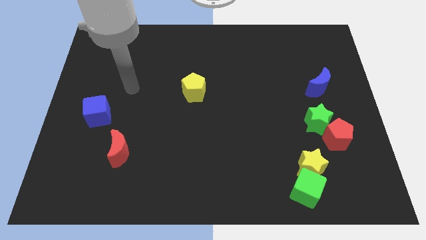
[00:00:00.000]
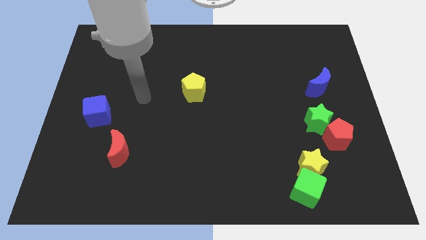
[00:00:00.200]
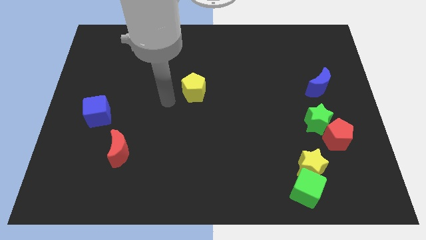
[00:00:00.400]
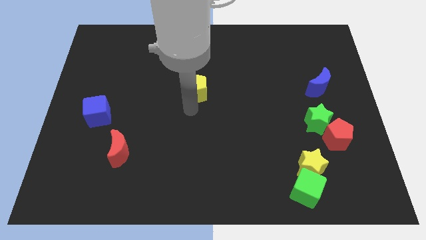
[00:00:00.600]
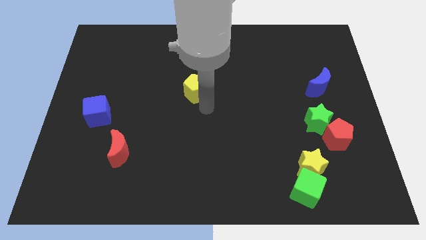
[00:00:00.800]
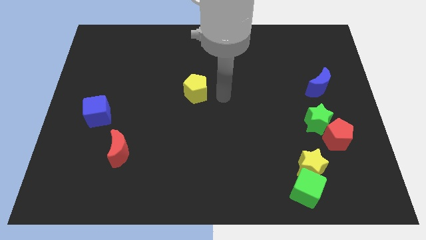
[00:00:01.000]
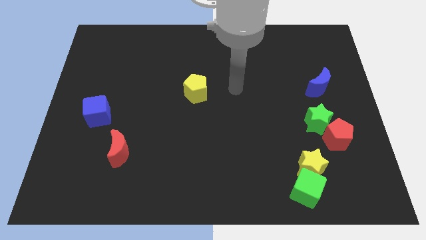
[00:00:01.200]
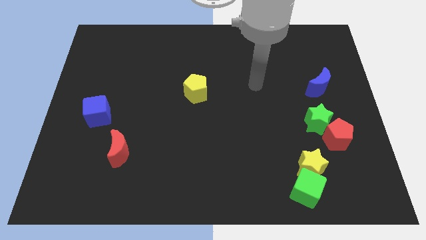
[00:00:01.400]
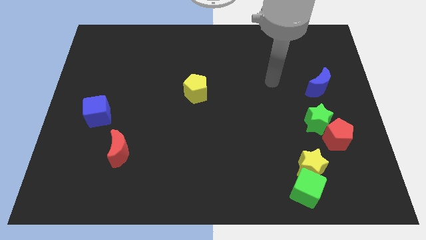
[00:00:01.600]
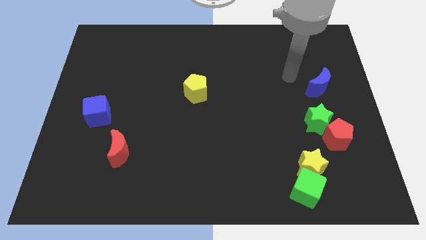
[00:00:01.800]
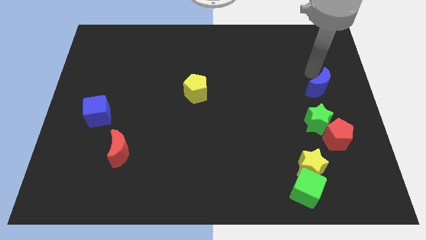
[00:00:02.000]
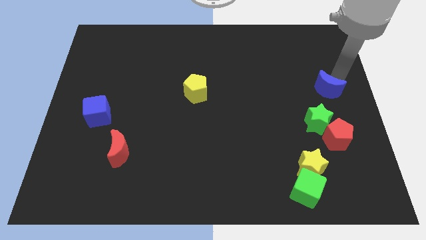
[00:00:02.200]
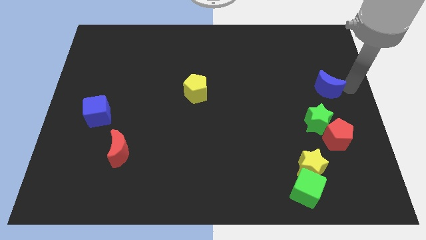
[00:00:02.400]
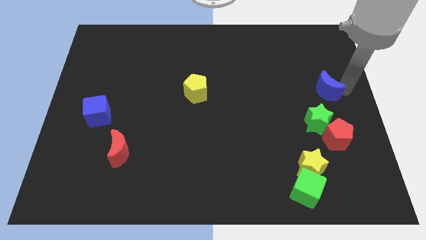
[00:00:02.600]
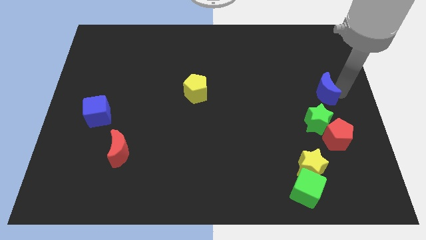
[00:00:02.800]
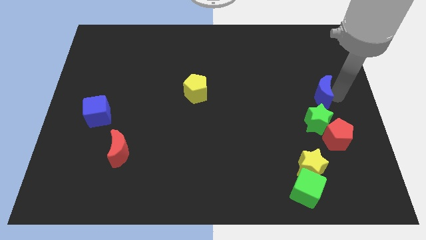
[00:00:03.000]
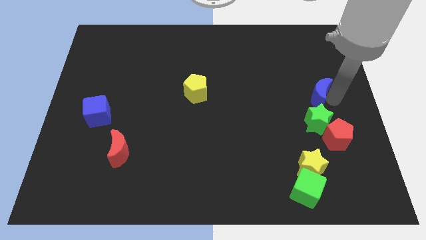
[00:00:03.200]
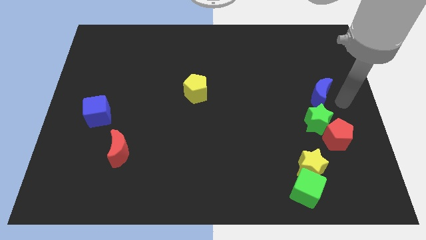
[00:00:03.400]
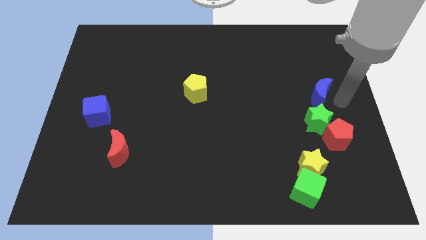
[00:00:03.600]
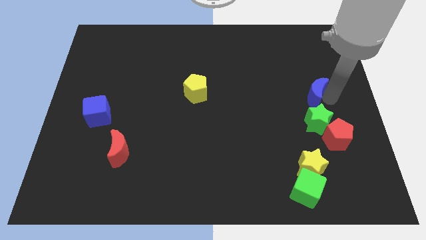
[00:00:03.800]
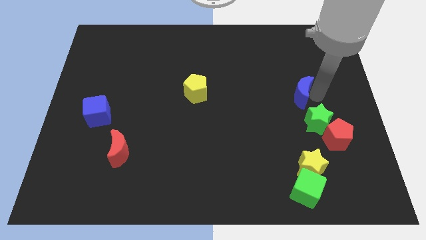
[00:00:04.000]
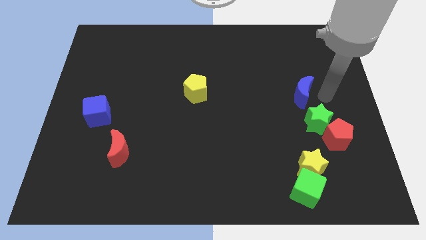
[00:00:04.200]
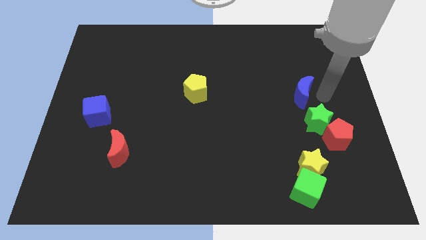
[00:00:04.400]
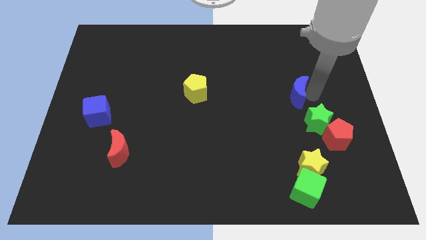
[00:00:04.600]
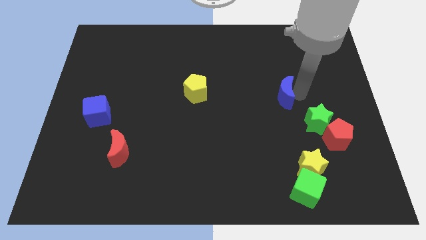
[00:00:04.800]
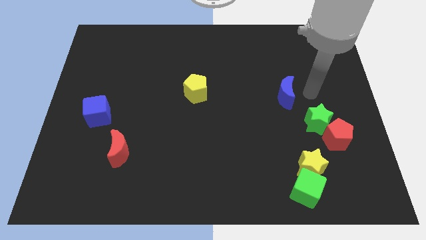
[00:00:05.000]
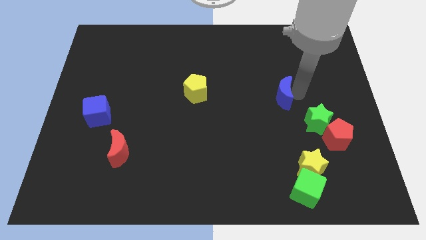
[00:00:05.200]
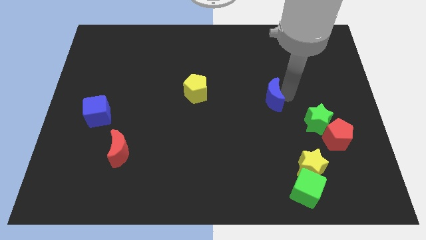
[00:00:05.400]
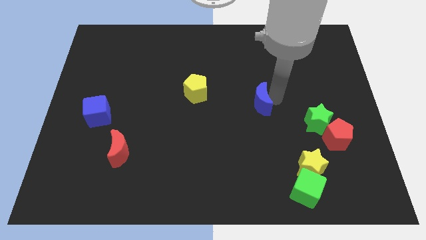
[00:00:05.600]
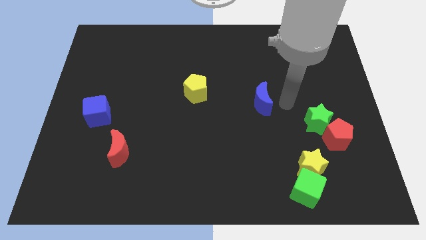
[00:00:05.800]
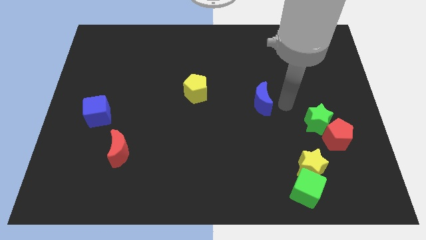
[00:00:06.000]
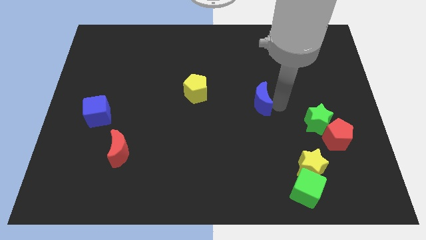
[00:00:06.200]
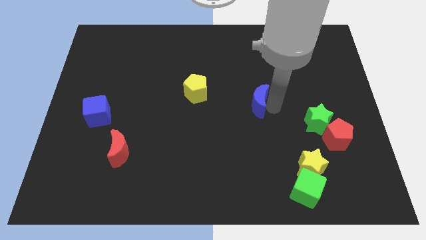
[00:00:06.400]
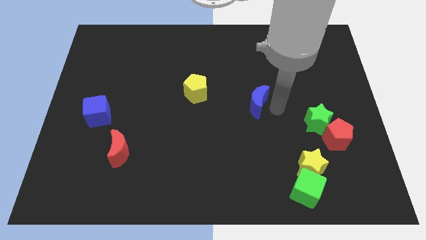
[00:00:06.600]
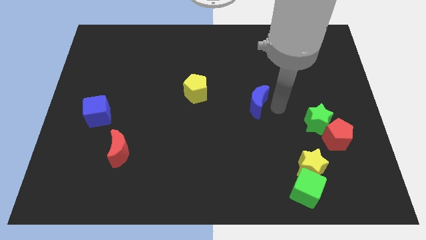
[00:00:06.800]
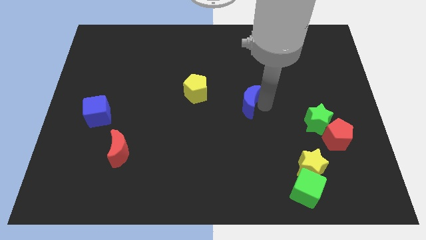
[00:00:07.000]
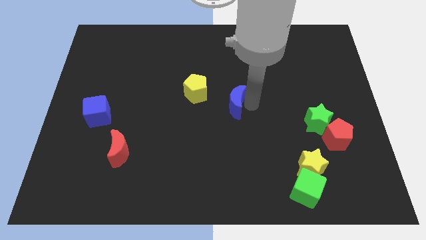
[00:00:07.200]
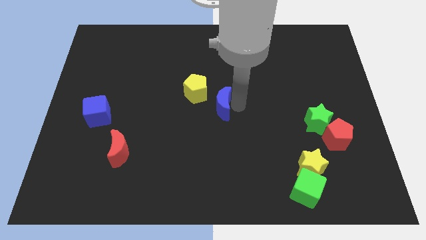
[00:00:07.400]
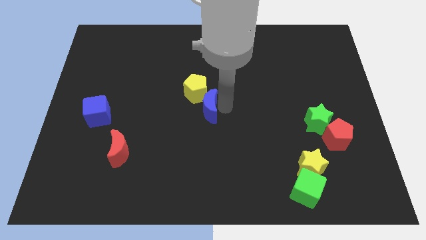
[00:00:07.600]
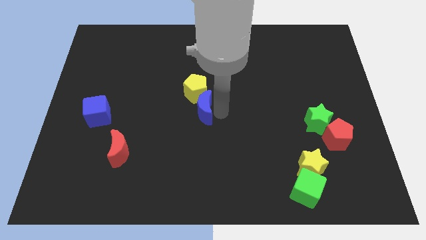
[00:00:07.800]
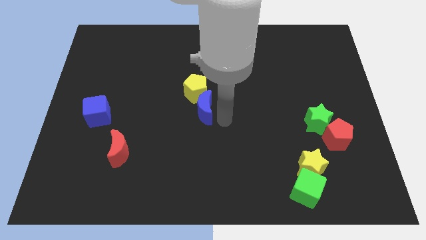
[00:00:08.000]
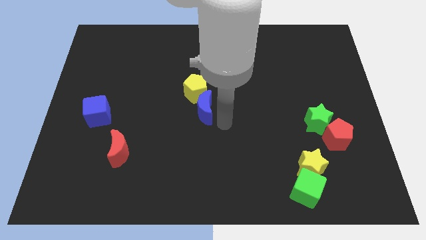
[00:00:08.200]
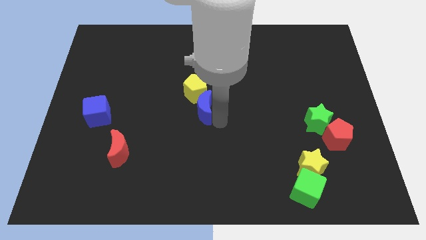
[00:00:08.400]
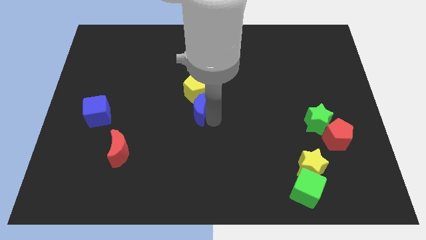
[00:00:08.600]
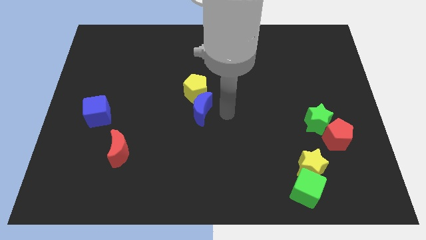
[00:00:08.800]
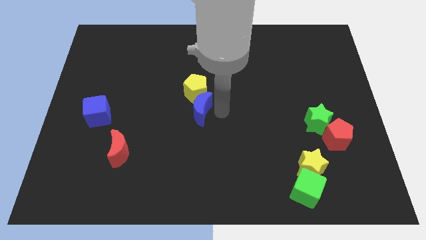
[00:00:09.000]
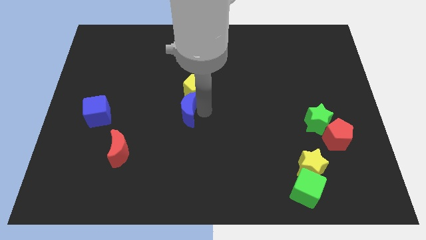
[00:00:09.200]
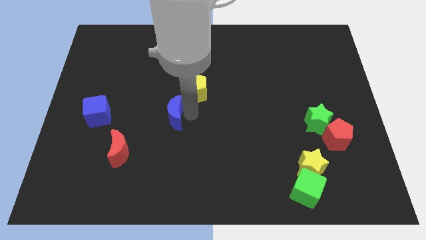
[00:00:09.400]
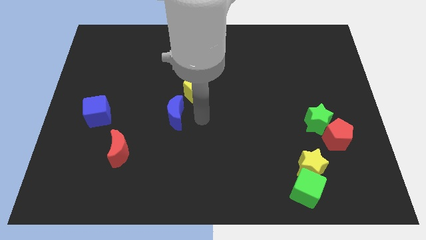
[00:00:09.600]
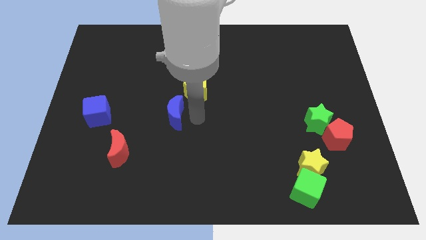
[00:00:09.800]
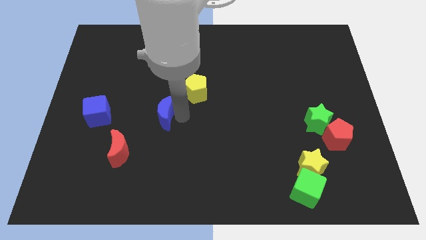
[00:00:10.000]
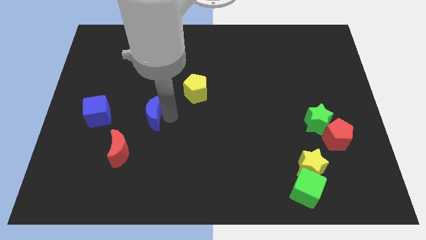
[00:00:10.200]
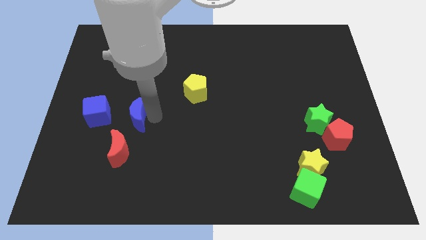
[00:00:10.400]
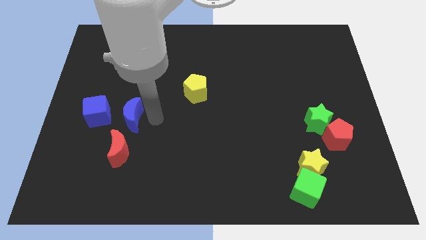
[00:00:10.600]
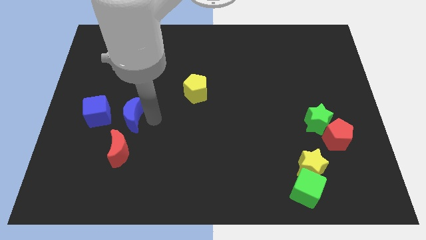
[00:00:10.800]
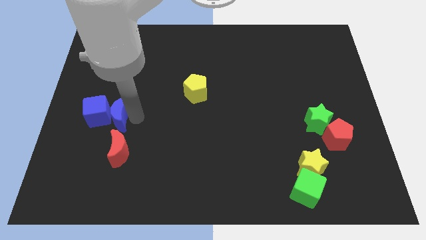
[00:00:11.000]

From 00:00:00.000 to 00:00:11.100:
move the blue moon close to the blue cube

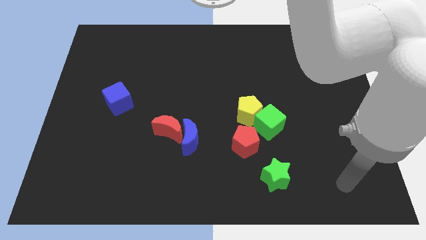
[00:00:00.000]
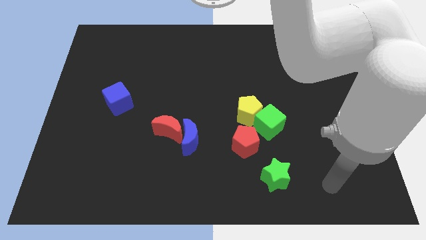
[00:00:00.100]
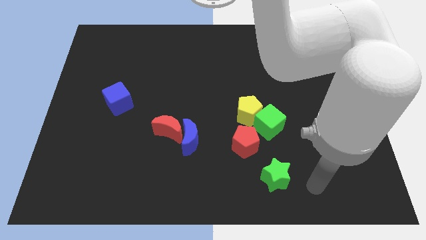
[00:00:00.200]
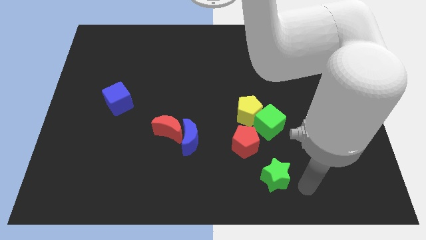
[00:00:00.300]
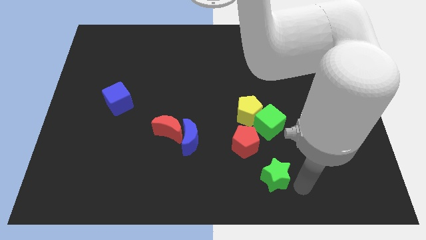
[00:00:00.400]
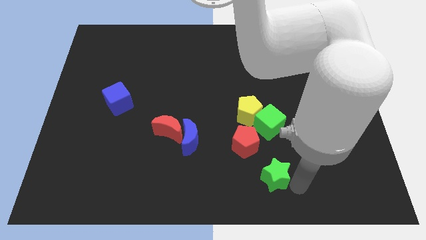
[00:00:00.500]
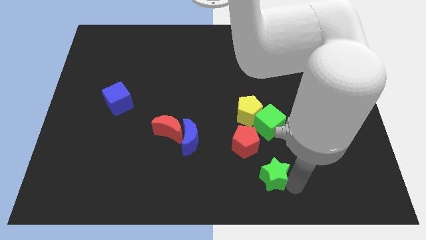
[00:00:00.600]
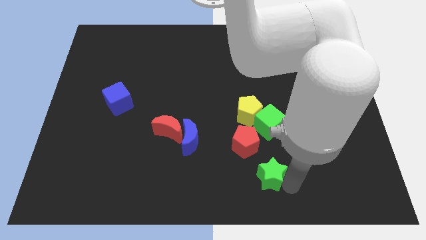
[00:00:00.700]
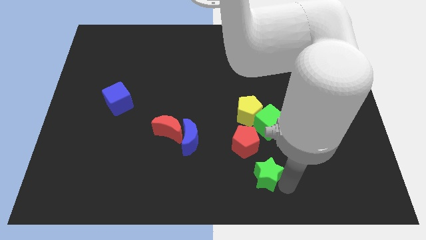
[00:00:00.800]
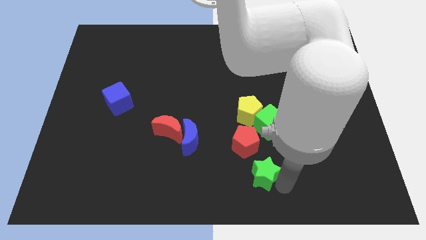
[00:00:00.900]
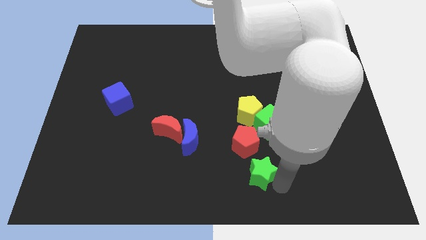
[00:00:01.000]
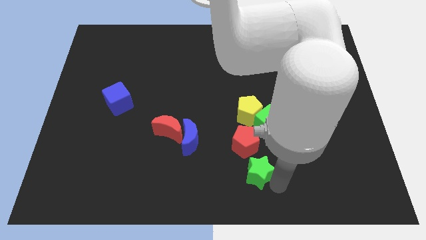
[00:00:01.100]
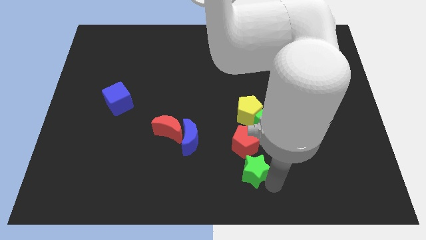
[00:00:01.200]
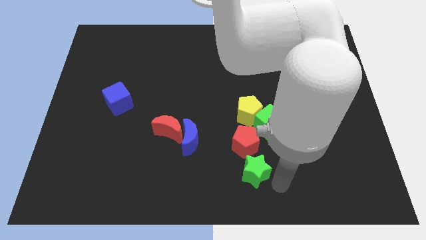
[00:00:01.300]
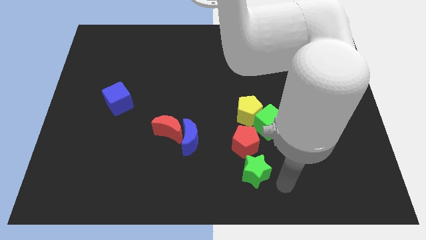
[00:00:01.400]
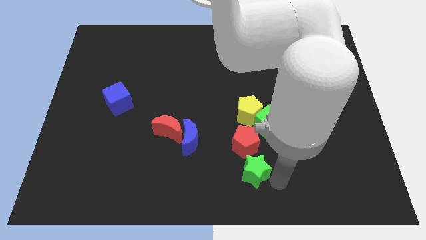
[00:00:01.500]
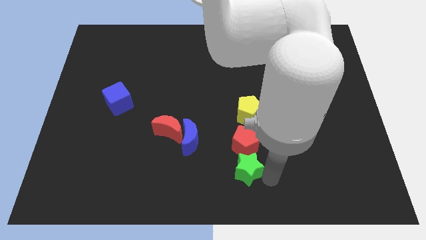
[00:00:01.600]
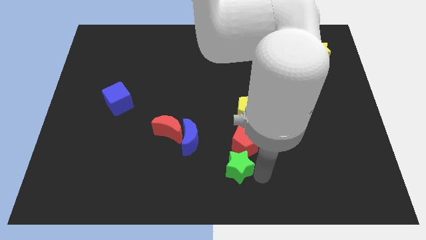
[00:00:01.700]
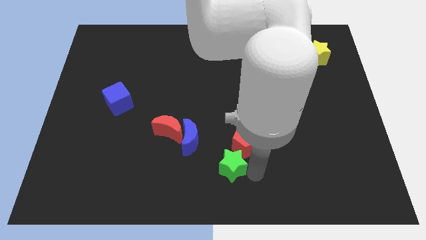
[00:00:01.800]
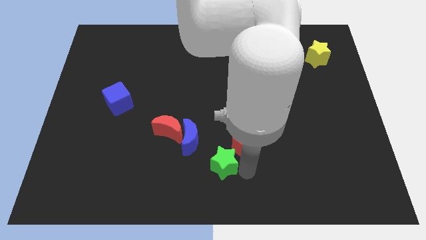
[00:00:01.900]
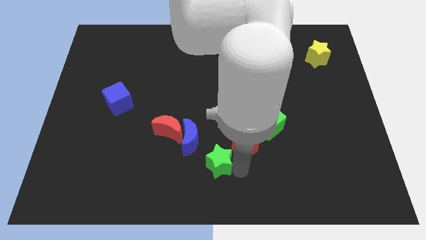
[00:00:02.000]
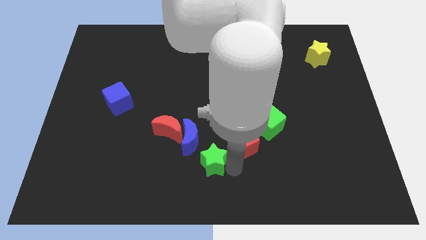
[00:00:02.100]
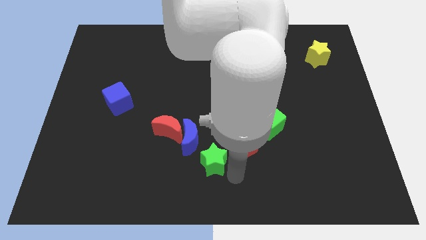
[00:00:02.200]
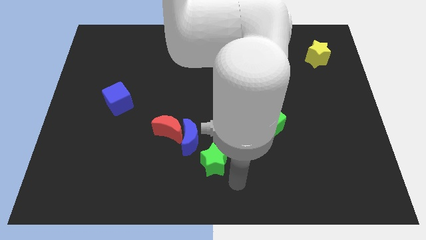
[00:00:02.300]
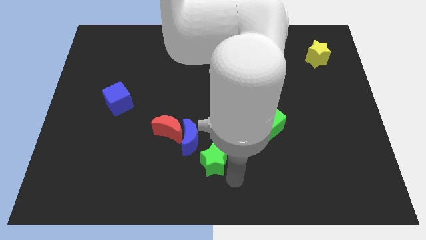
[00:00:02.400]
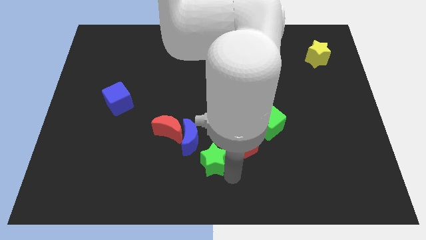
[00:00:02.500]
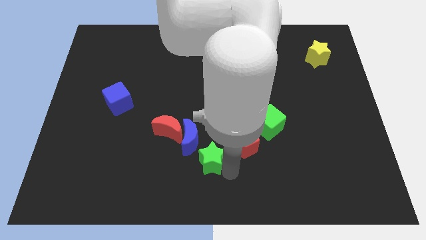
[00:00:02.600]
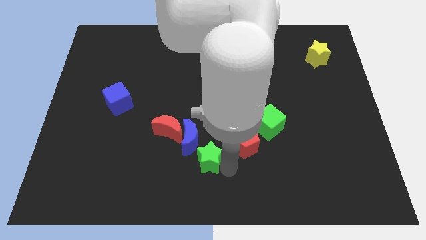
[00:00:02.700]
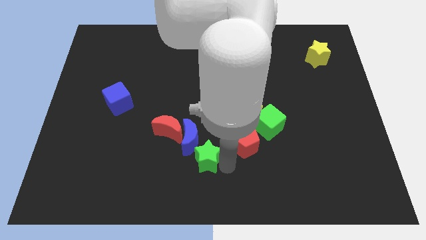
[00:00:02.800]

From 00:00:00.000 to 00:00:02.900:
move the green star next to the blue moon
